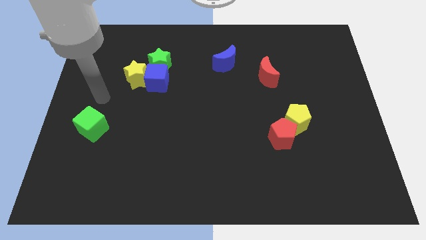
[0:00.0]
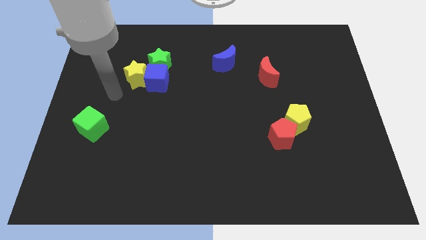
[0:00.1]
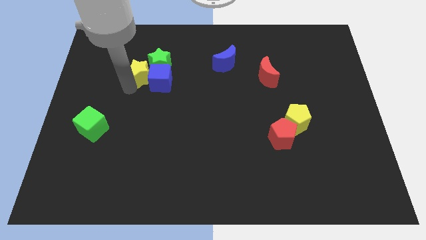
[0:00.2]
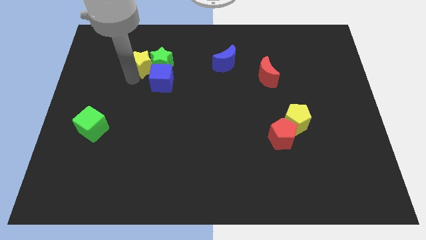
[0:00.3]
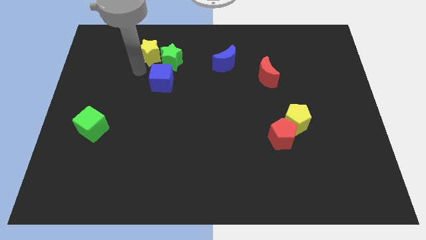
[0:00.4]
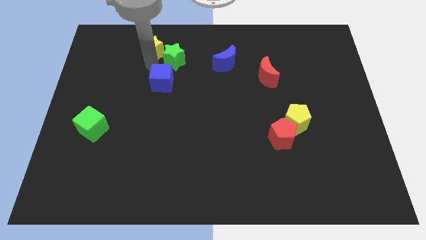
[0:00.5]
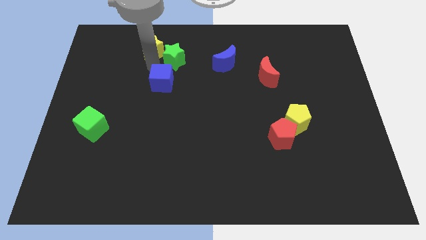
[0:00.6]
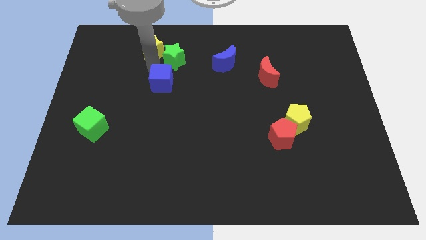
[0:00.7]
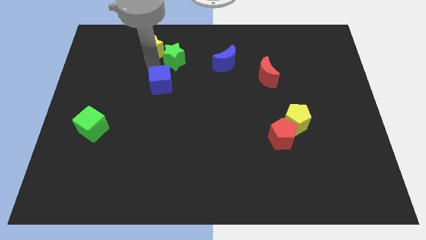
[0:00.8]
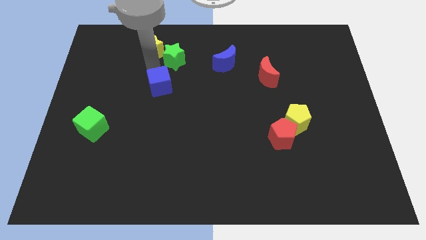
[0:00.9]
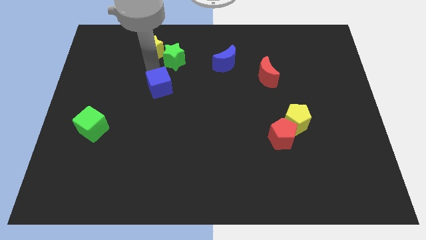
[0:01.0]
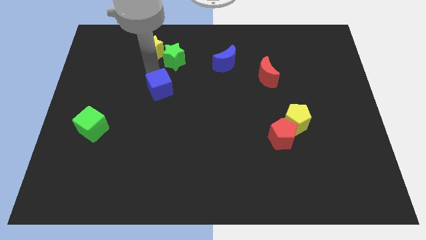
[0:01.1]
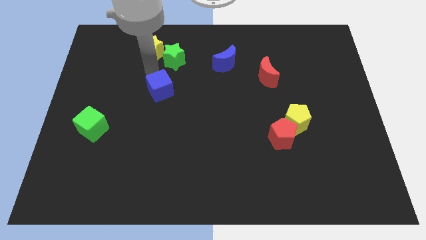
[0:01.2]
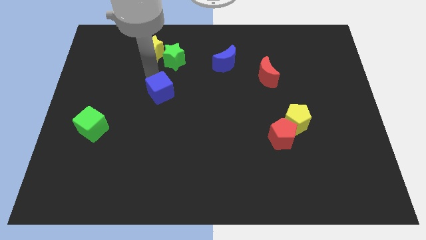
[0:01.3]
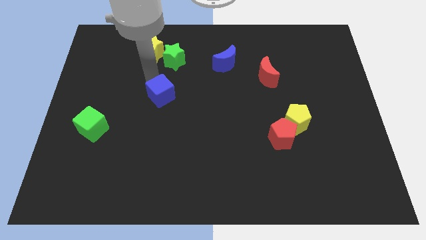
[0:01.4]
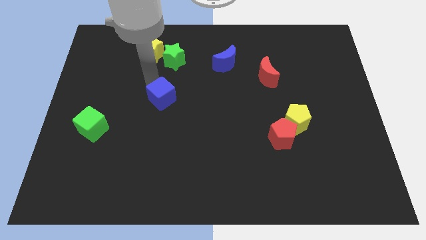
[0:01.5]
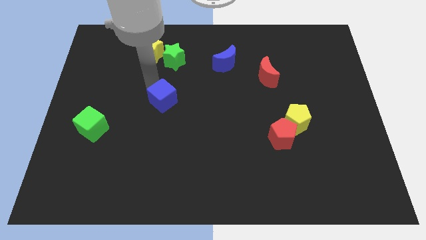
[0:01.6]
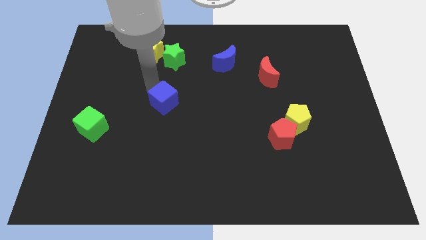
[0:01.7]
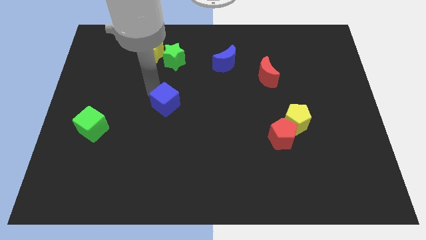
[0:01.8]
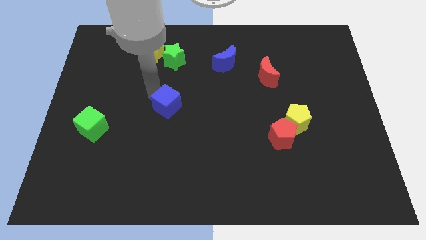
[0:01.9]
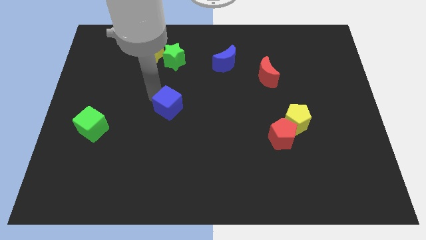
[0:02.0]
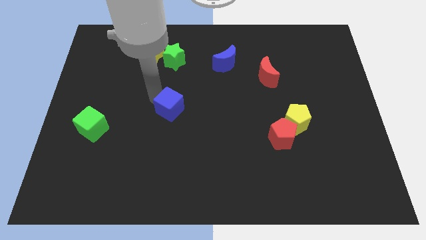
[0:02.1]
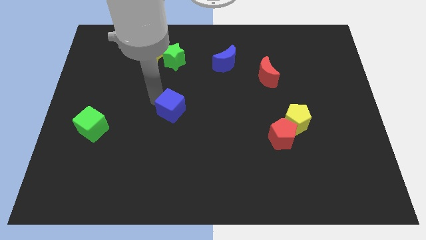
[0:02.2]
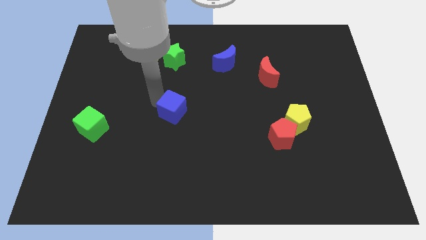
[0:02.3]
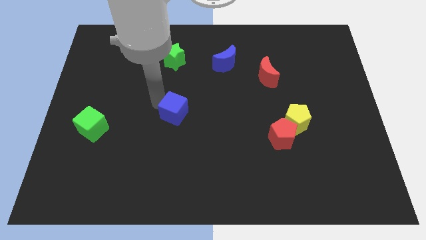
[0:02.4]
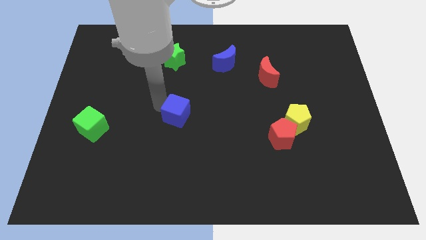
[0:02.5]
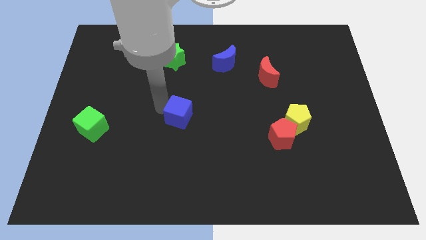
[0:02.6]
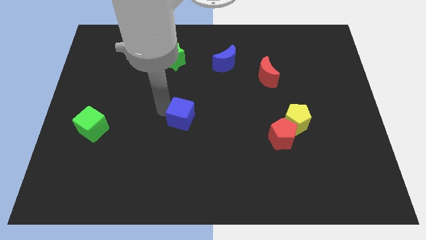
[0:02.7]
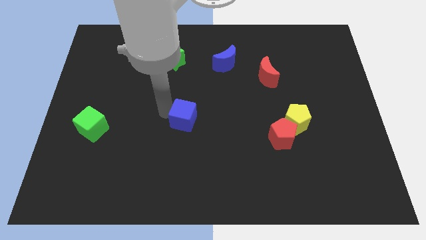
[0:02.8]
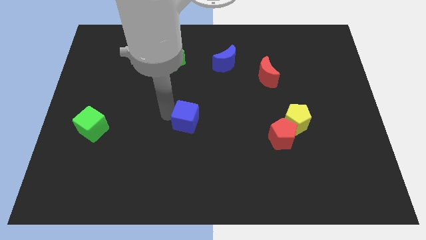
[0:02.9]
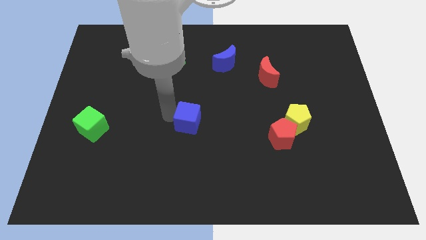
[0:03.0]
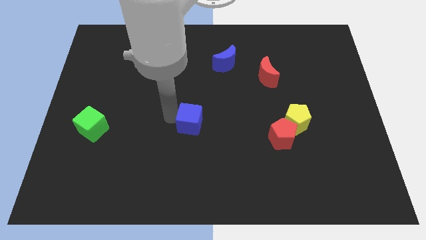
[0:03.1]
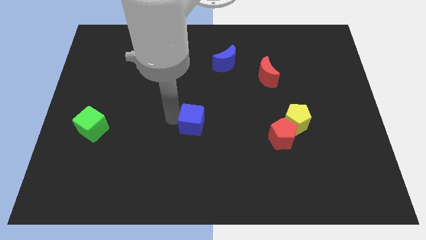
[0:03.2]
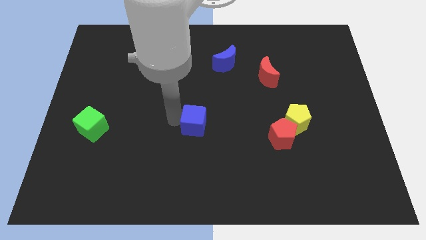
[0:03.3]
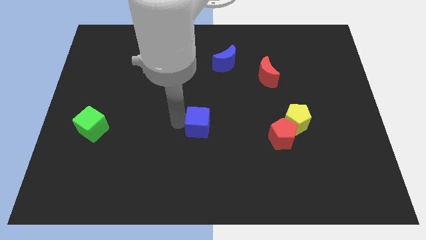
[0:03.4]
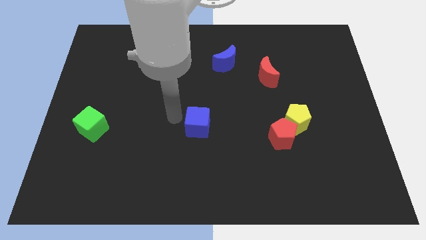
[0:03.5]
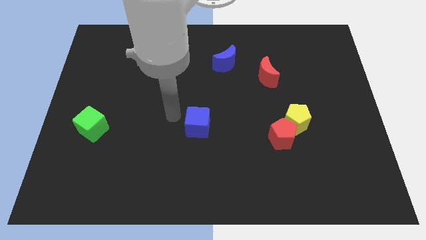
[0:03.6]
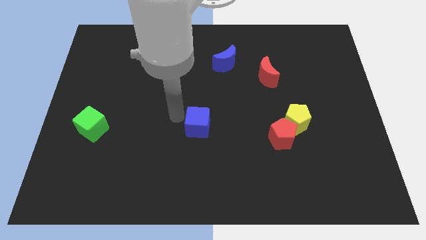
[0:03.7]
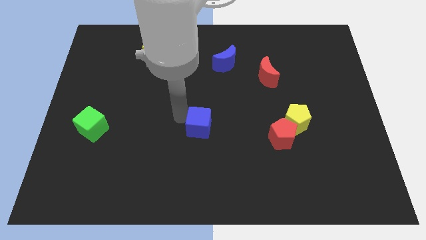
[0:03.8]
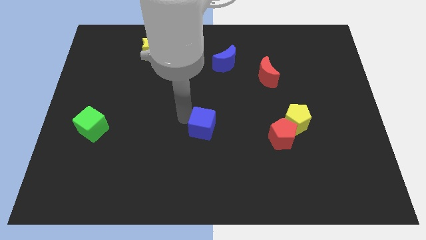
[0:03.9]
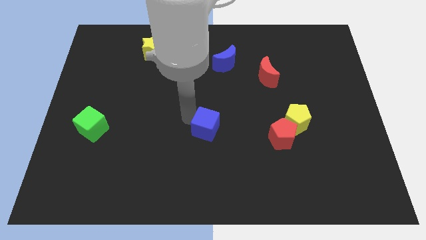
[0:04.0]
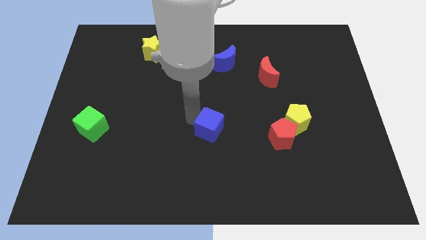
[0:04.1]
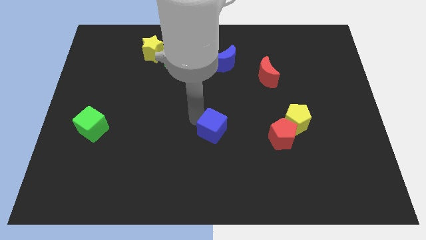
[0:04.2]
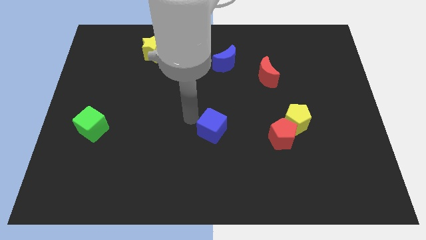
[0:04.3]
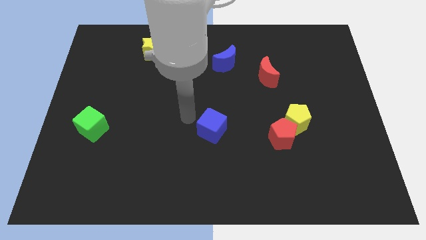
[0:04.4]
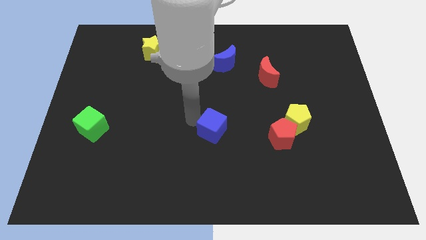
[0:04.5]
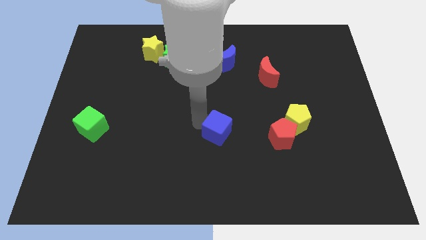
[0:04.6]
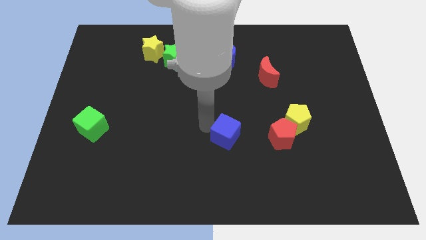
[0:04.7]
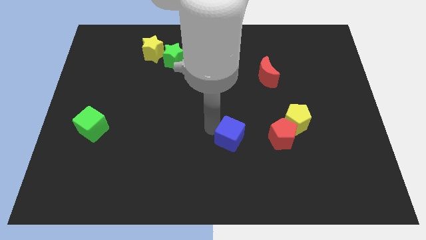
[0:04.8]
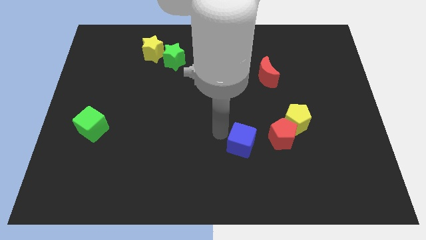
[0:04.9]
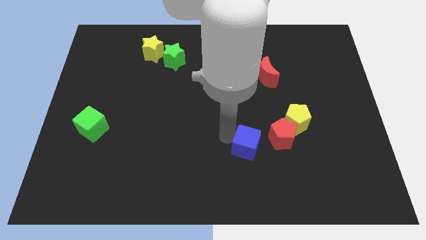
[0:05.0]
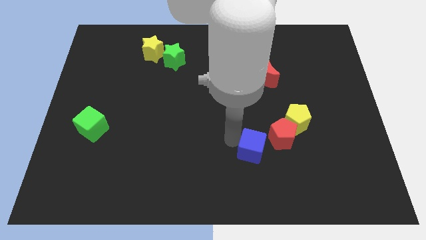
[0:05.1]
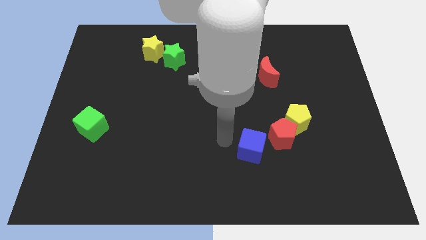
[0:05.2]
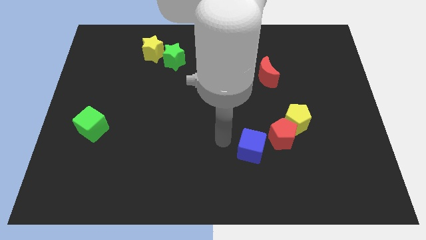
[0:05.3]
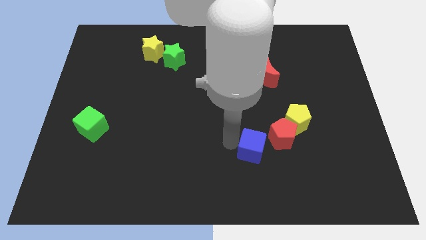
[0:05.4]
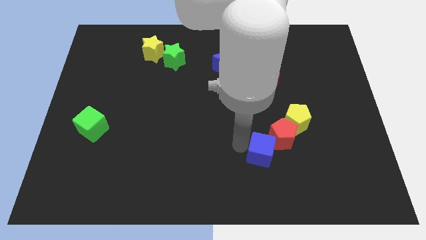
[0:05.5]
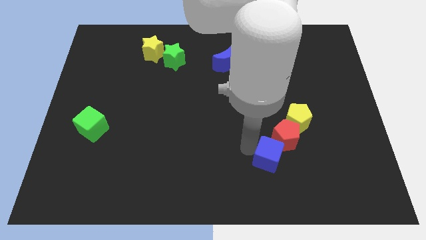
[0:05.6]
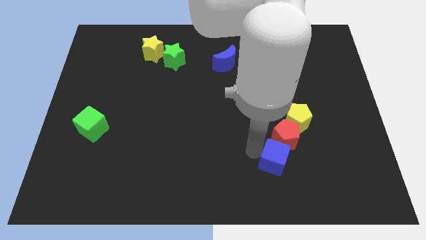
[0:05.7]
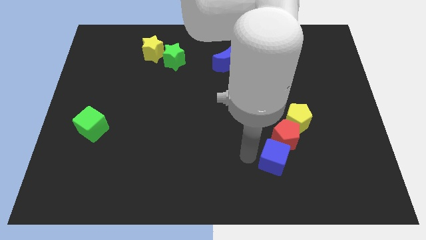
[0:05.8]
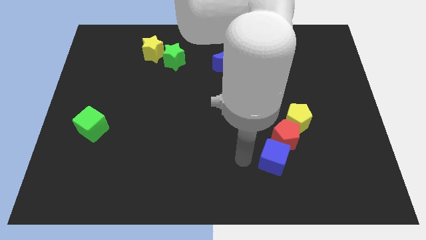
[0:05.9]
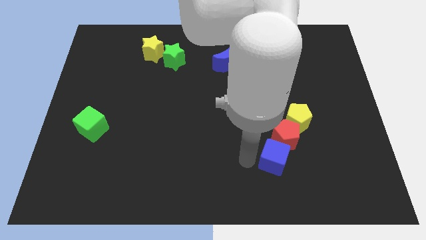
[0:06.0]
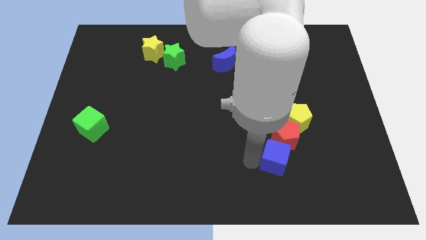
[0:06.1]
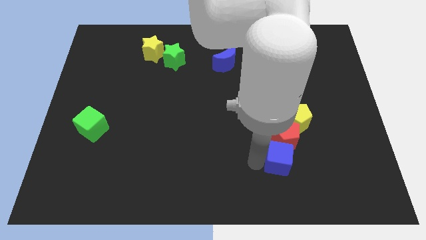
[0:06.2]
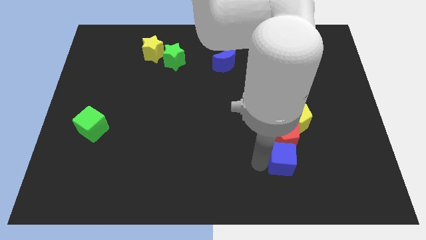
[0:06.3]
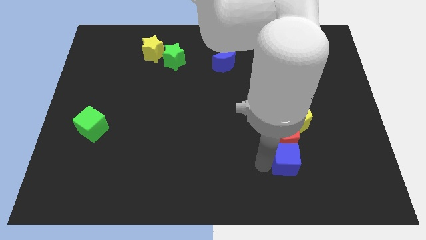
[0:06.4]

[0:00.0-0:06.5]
push the blue cube diagonally down and to the right of the red pentagon

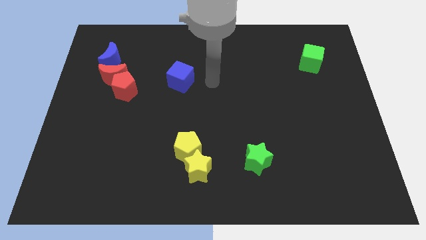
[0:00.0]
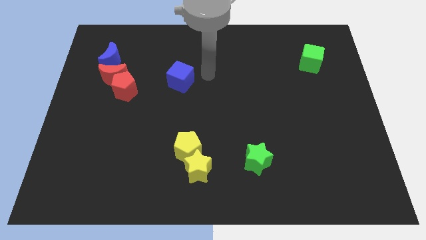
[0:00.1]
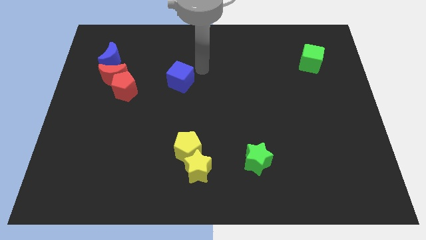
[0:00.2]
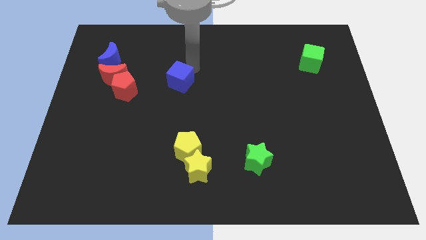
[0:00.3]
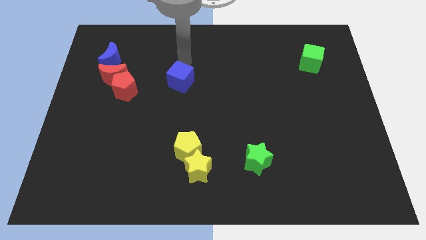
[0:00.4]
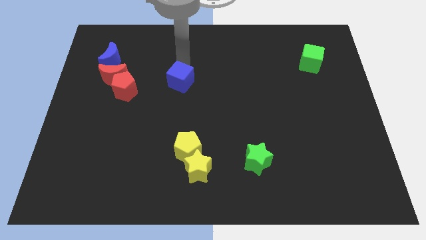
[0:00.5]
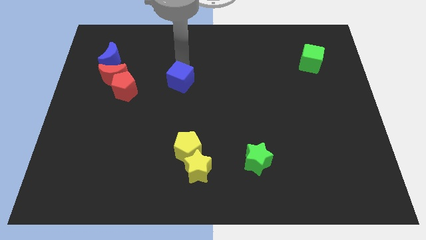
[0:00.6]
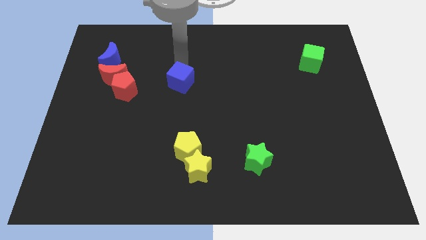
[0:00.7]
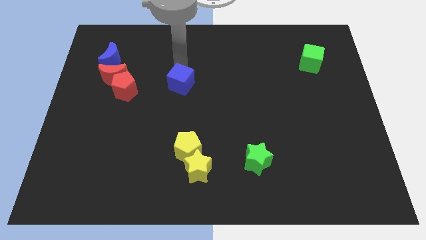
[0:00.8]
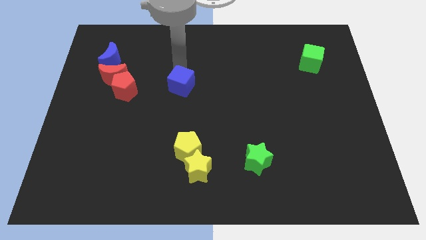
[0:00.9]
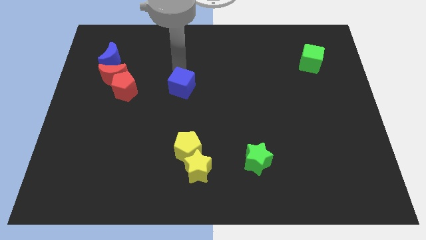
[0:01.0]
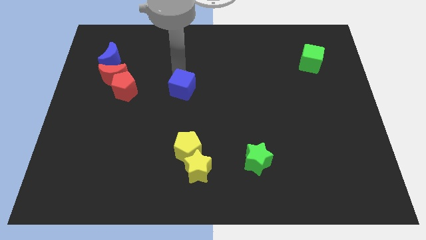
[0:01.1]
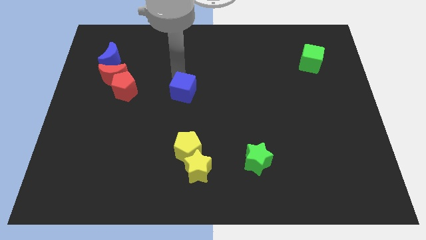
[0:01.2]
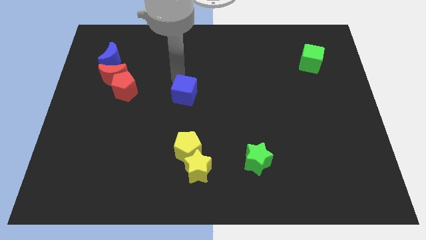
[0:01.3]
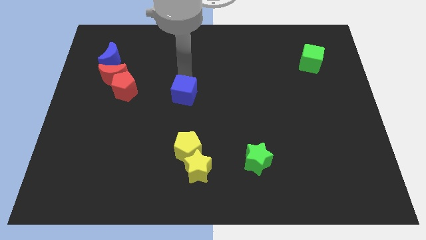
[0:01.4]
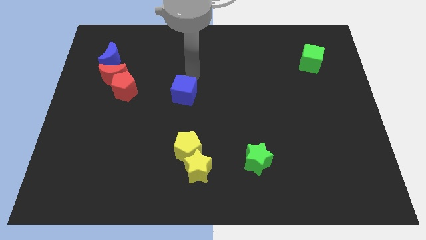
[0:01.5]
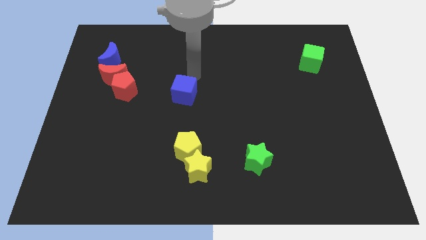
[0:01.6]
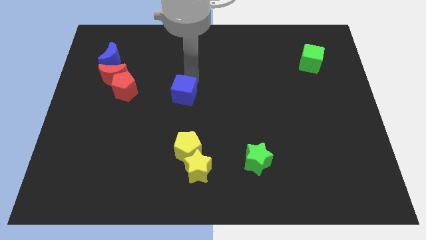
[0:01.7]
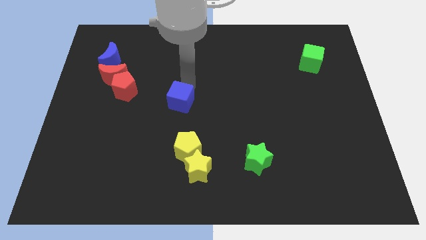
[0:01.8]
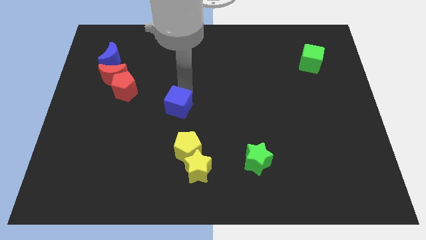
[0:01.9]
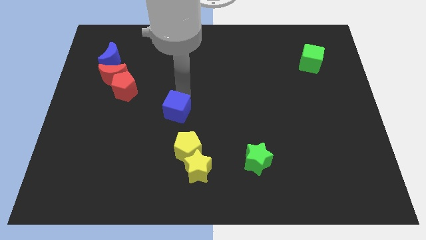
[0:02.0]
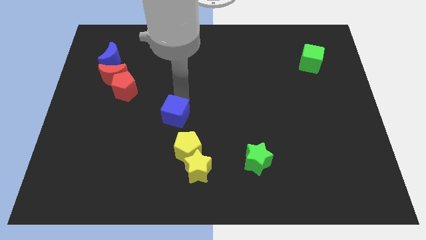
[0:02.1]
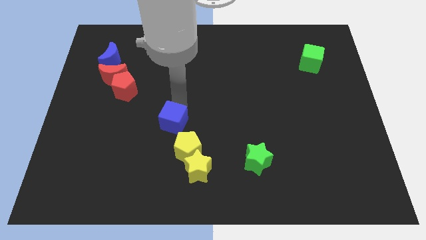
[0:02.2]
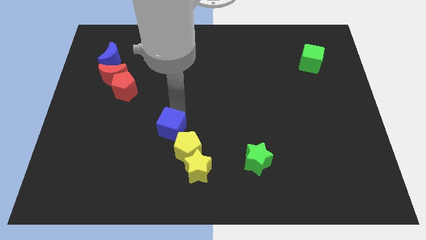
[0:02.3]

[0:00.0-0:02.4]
slide the blue cube diagonally up and to the left of the yellow star
